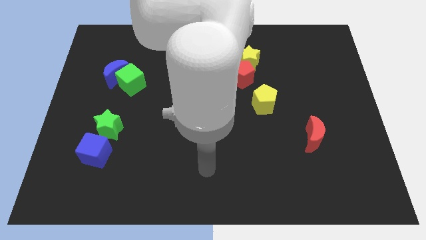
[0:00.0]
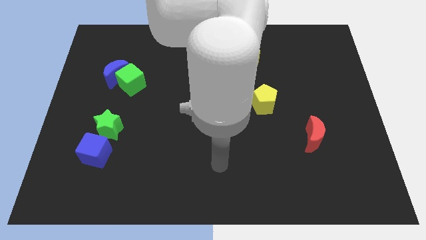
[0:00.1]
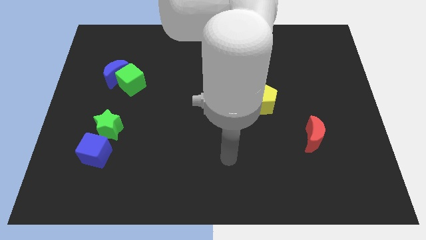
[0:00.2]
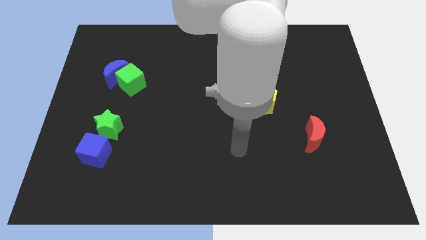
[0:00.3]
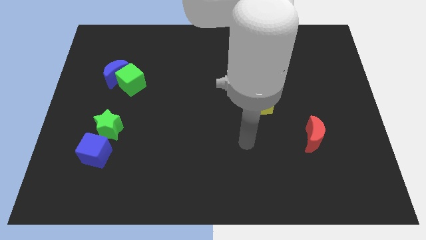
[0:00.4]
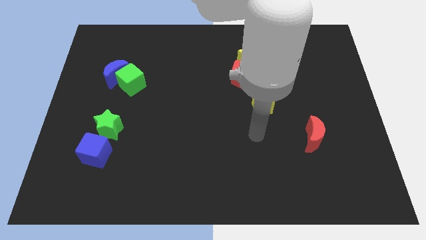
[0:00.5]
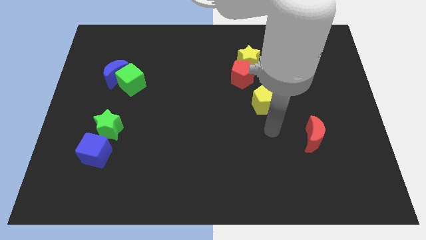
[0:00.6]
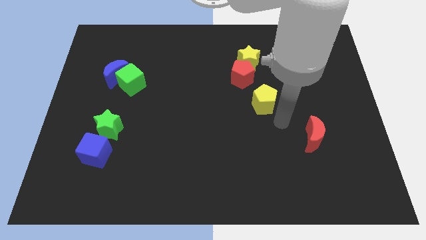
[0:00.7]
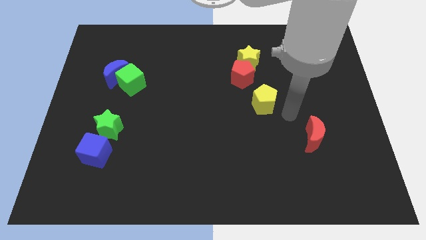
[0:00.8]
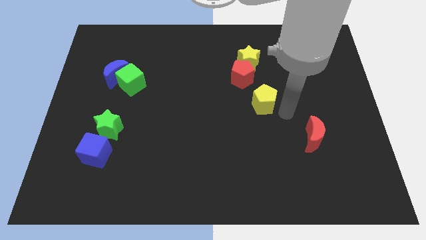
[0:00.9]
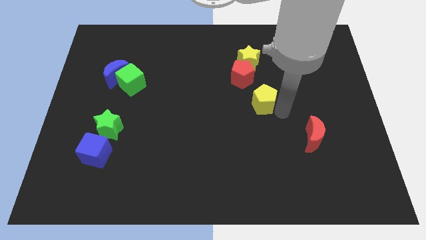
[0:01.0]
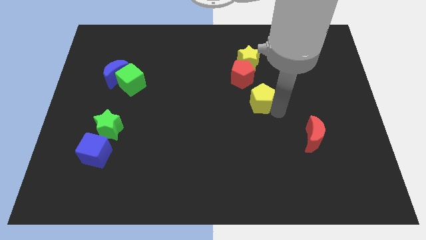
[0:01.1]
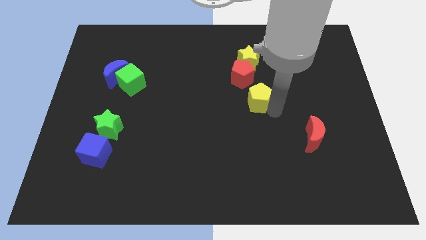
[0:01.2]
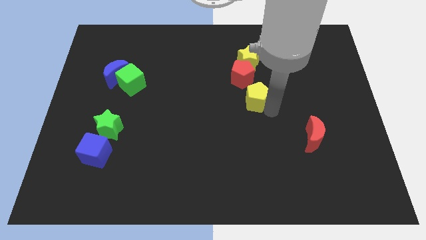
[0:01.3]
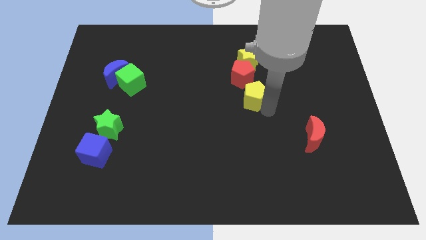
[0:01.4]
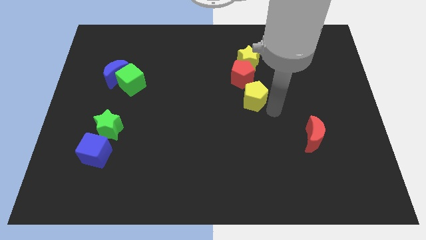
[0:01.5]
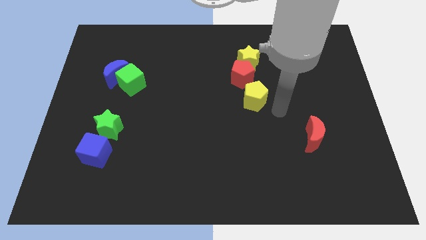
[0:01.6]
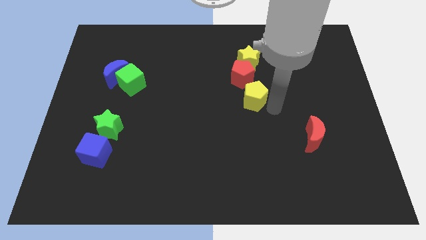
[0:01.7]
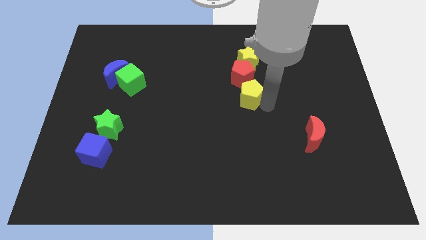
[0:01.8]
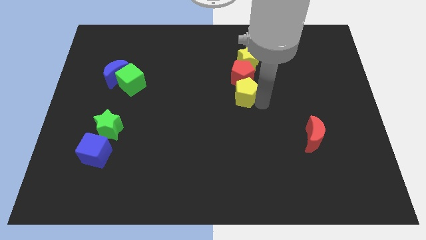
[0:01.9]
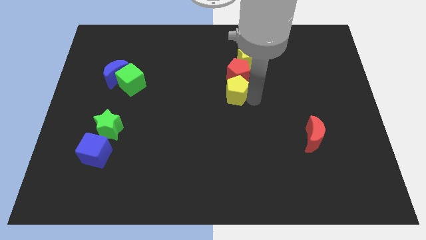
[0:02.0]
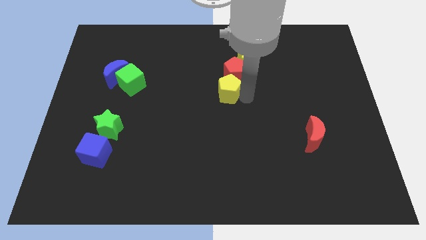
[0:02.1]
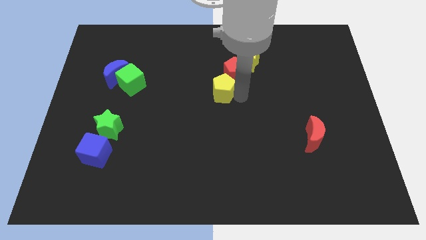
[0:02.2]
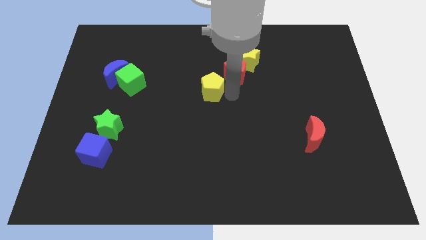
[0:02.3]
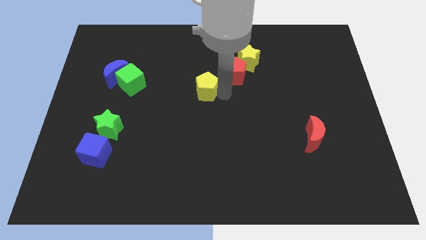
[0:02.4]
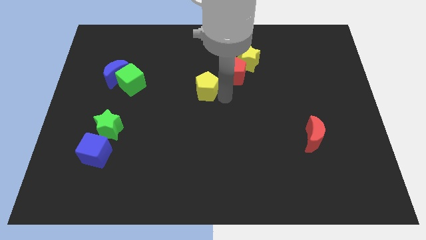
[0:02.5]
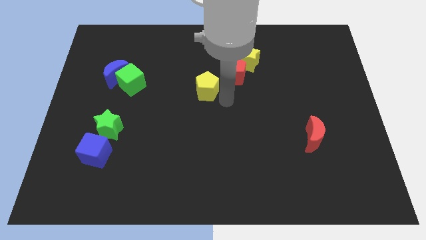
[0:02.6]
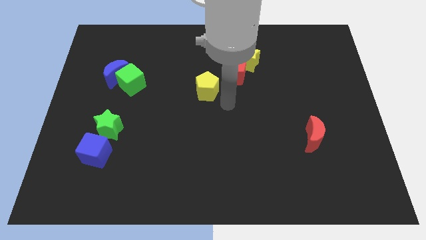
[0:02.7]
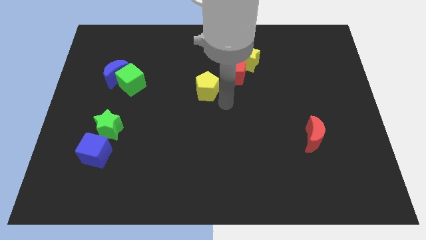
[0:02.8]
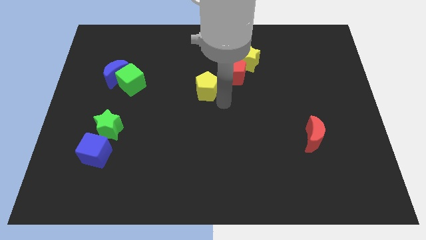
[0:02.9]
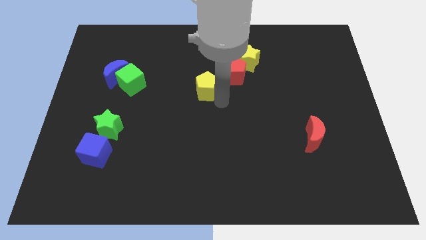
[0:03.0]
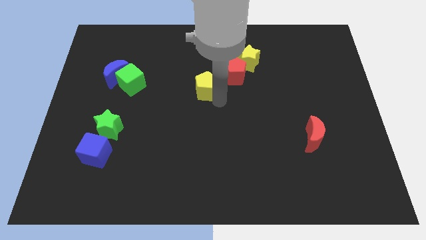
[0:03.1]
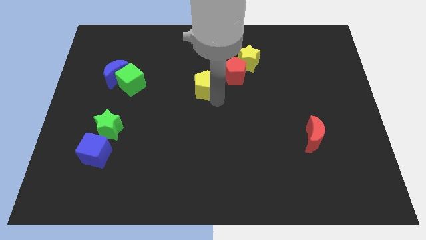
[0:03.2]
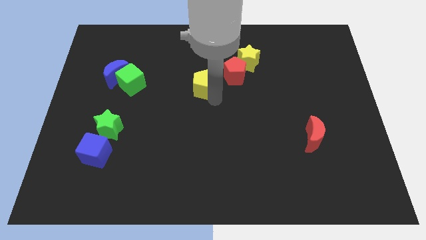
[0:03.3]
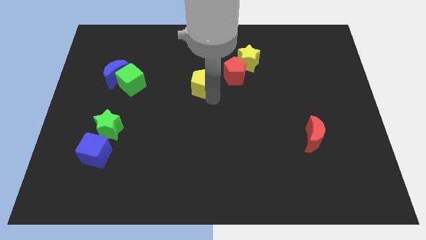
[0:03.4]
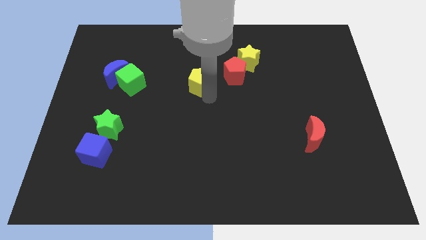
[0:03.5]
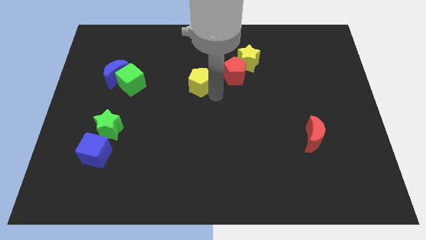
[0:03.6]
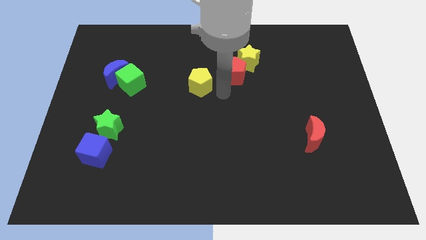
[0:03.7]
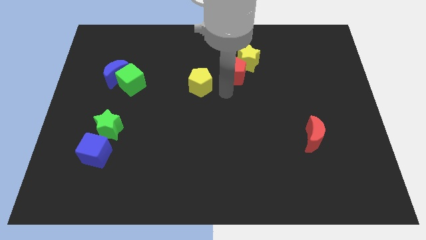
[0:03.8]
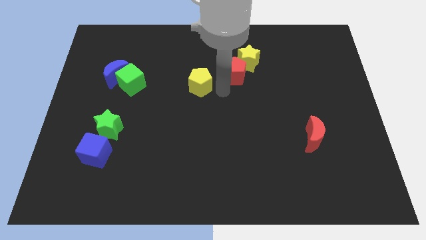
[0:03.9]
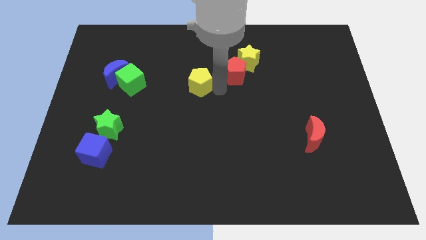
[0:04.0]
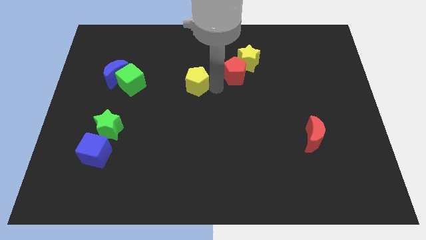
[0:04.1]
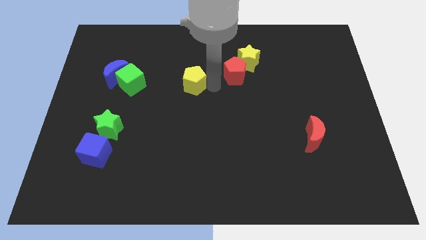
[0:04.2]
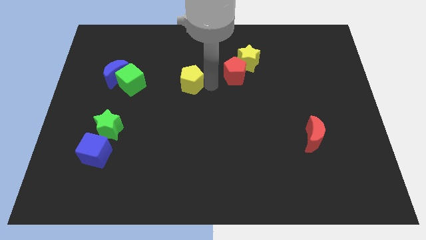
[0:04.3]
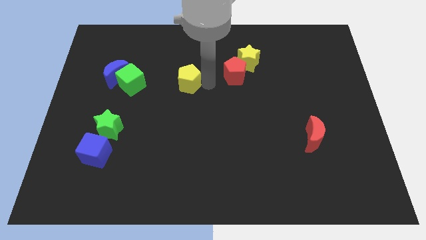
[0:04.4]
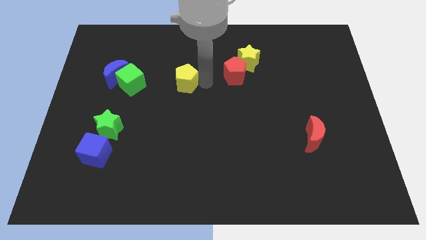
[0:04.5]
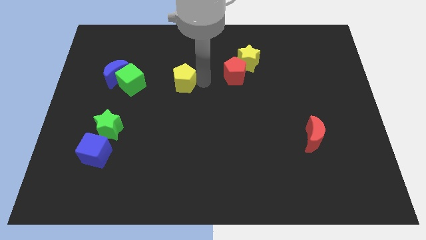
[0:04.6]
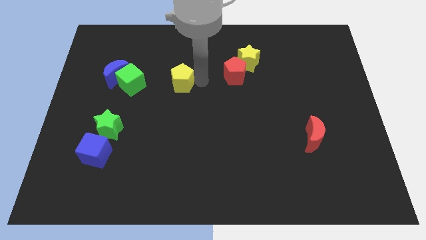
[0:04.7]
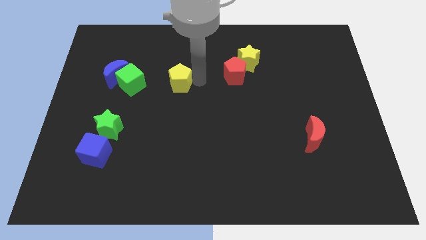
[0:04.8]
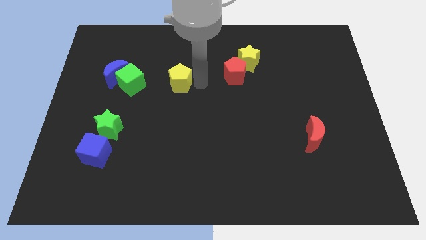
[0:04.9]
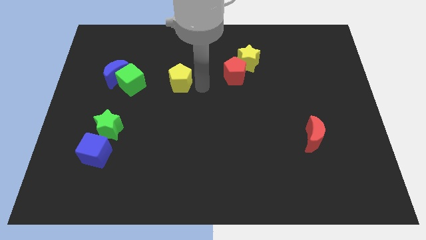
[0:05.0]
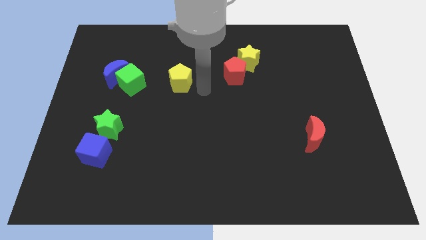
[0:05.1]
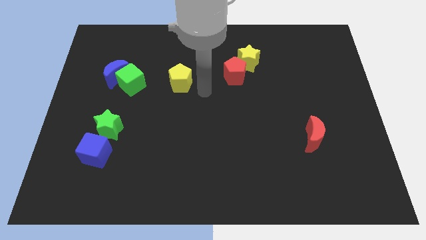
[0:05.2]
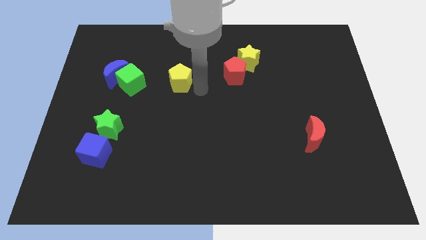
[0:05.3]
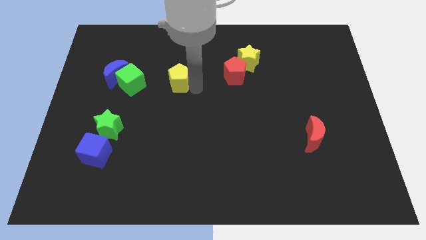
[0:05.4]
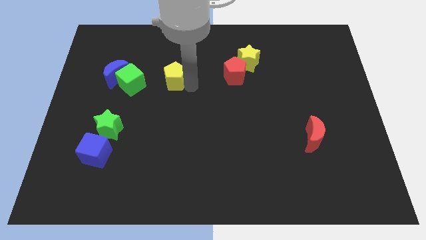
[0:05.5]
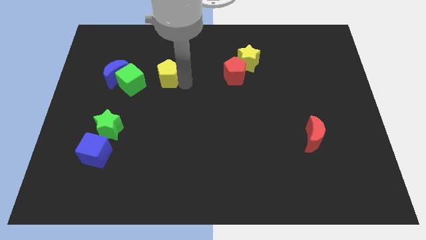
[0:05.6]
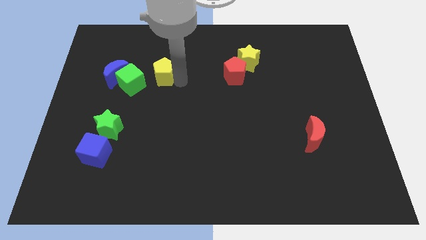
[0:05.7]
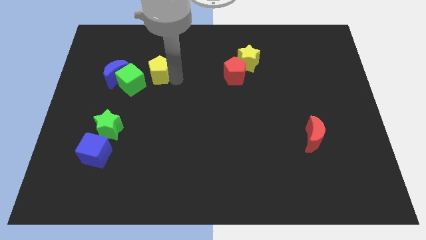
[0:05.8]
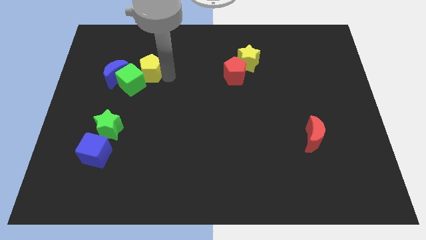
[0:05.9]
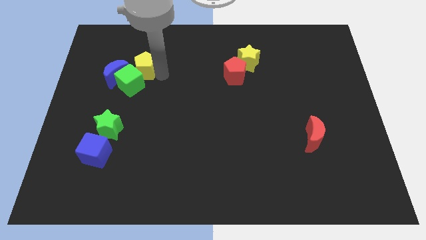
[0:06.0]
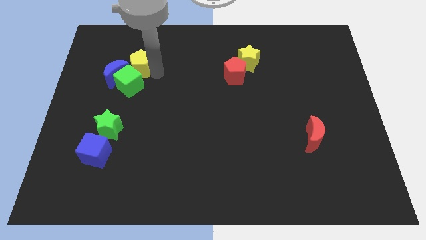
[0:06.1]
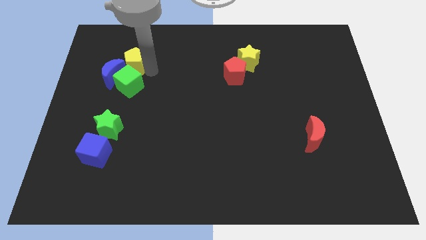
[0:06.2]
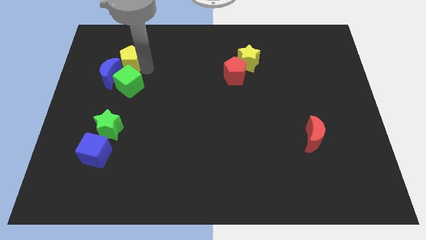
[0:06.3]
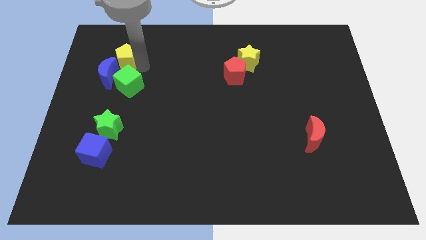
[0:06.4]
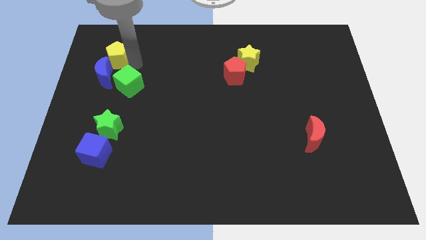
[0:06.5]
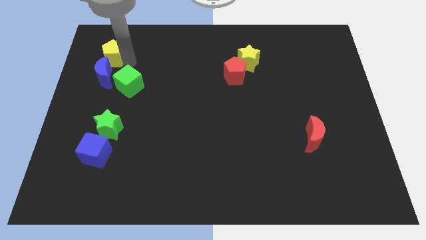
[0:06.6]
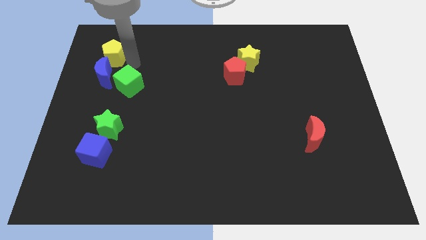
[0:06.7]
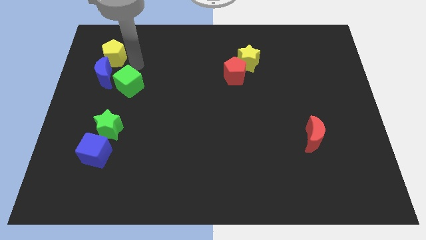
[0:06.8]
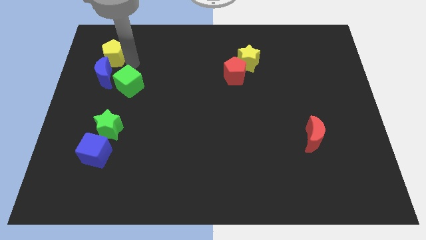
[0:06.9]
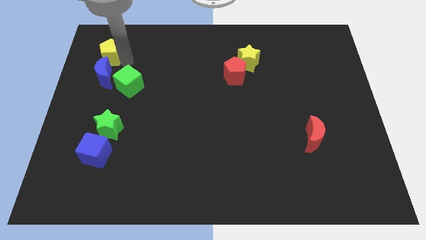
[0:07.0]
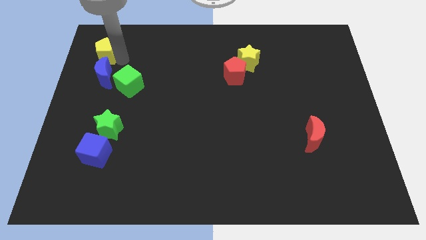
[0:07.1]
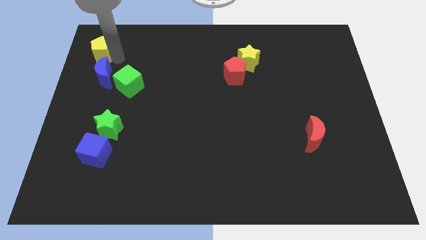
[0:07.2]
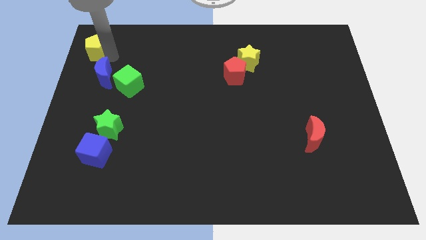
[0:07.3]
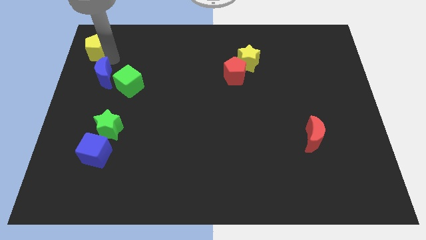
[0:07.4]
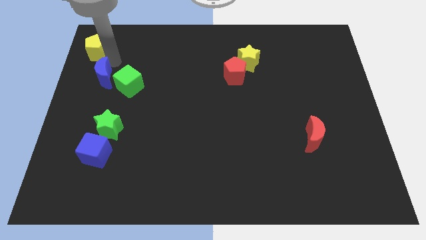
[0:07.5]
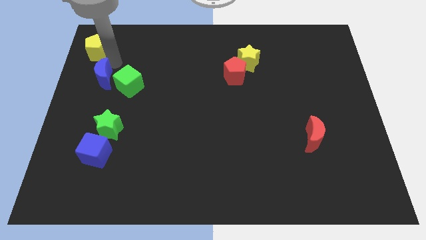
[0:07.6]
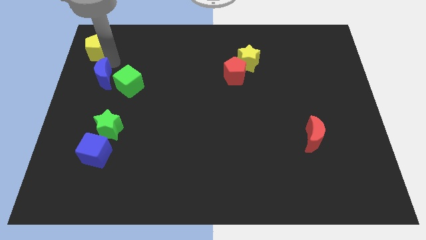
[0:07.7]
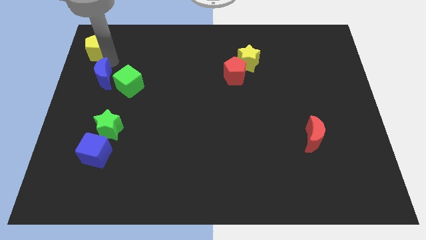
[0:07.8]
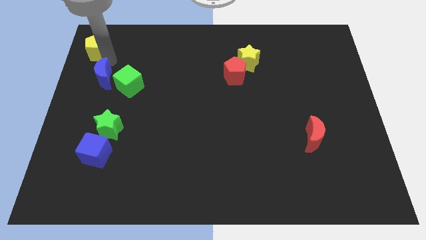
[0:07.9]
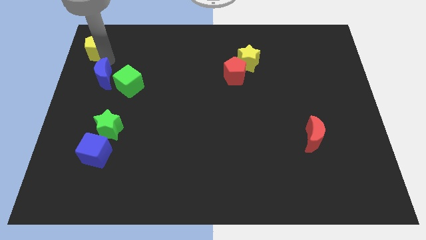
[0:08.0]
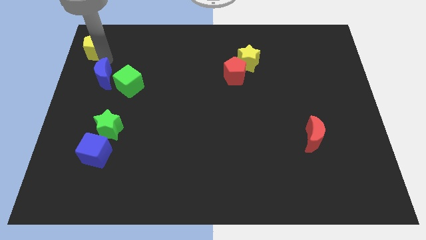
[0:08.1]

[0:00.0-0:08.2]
put the yellow pentagon to the top left of the board
